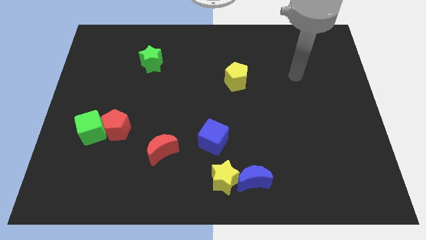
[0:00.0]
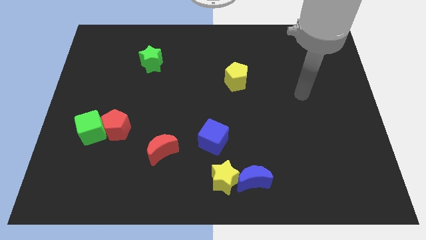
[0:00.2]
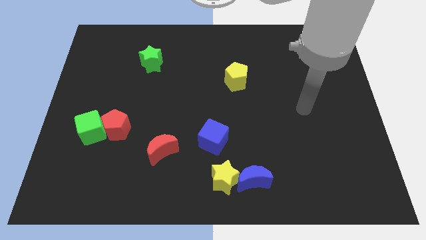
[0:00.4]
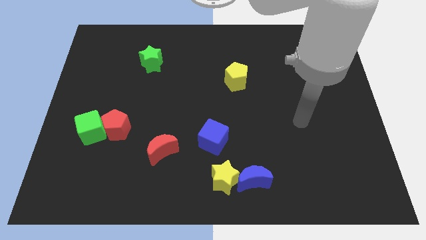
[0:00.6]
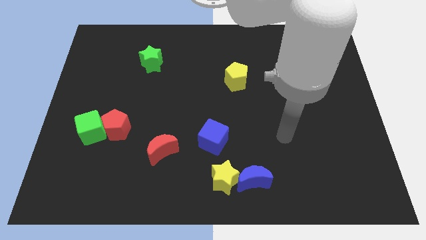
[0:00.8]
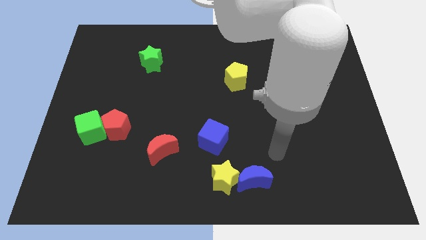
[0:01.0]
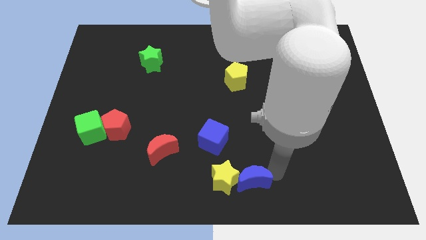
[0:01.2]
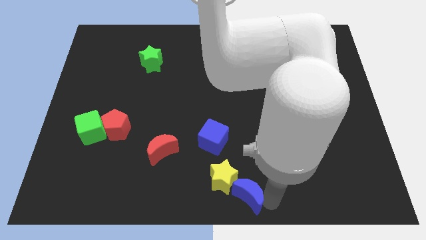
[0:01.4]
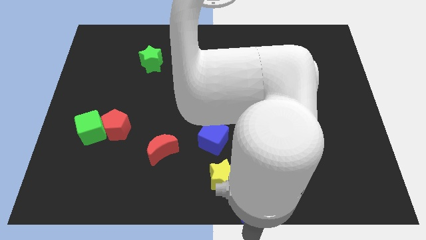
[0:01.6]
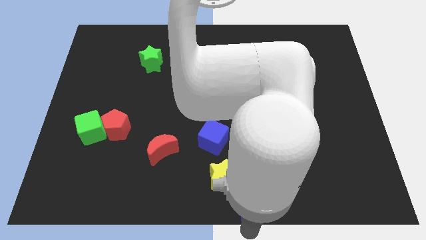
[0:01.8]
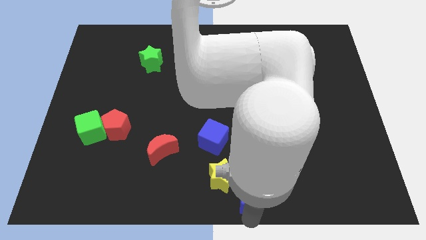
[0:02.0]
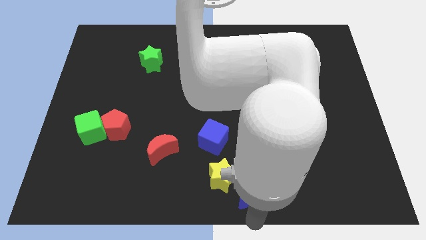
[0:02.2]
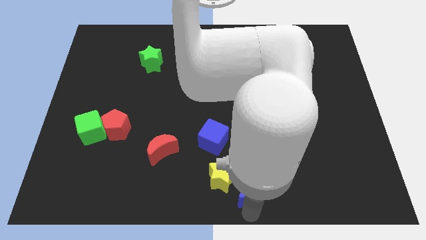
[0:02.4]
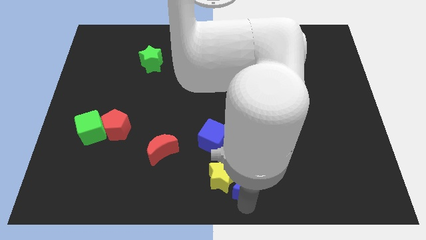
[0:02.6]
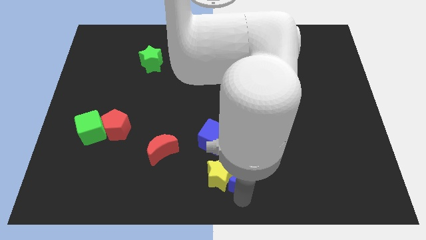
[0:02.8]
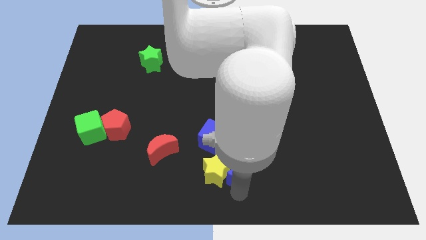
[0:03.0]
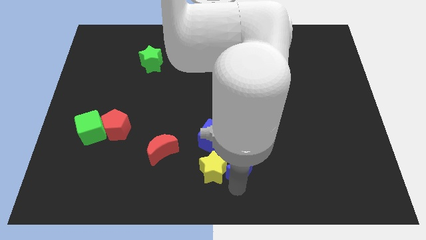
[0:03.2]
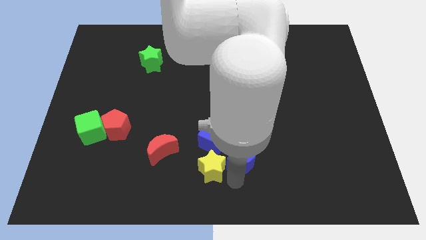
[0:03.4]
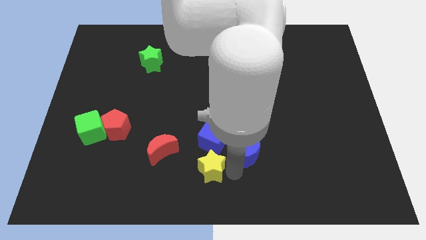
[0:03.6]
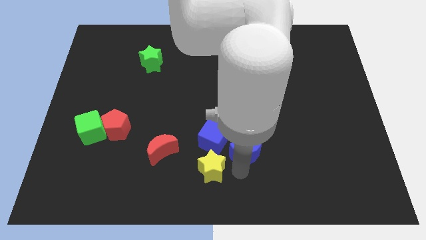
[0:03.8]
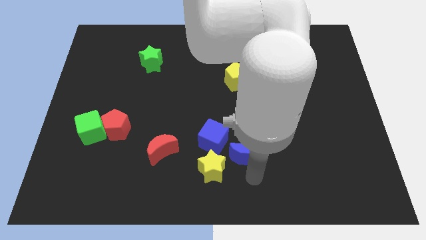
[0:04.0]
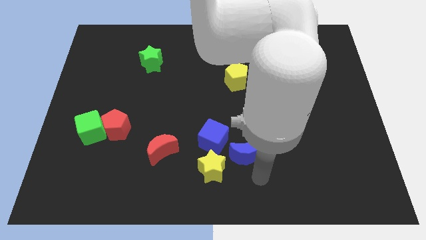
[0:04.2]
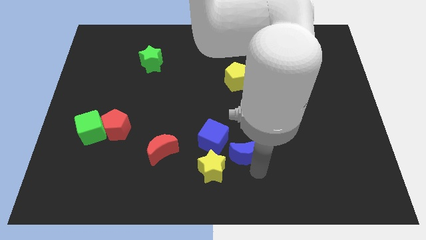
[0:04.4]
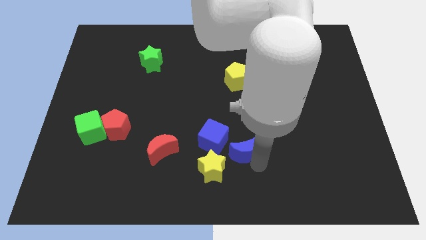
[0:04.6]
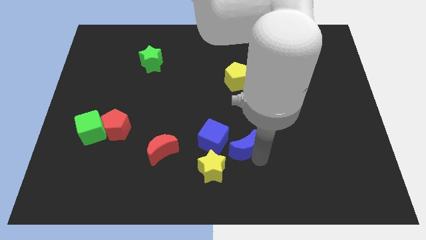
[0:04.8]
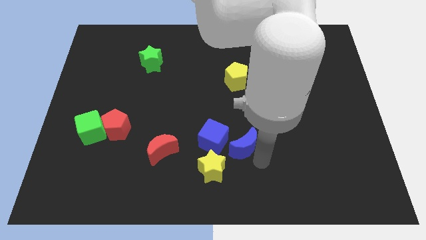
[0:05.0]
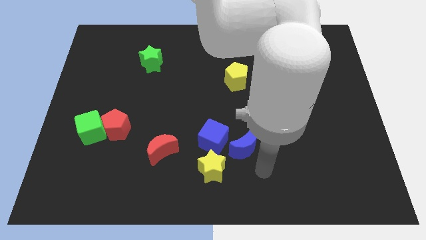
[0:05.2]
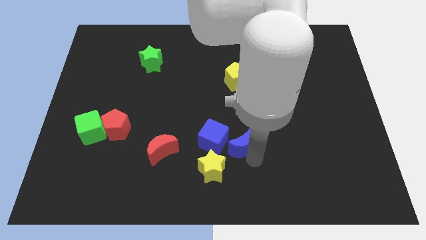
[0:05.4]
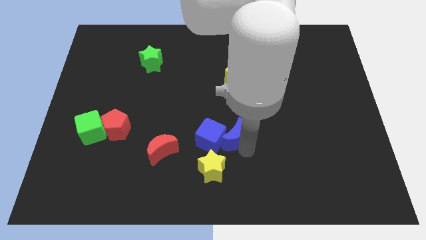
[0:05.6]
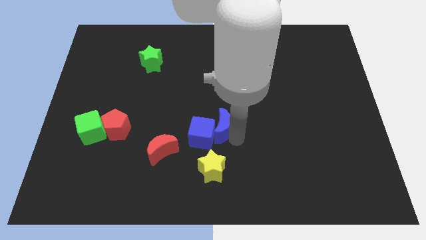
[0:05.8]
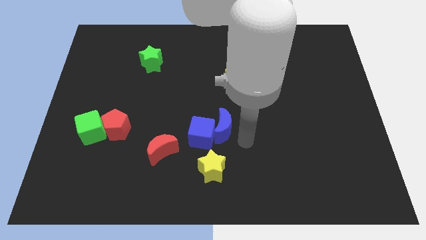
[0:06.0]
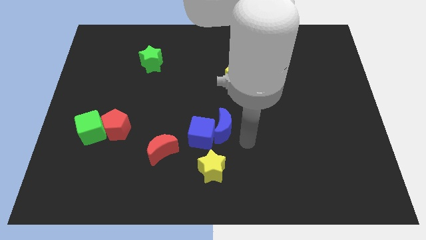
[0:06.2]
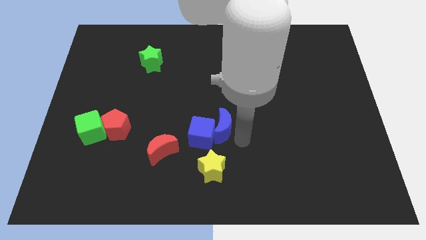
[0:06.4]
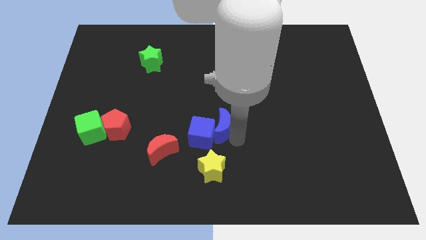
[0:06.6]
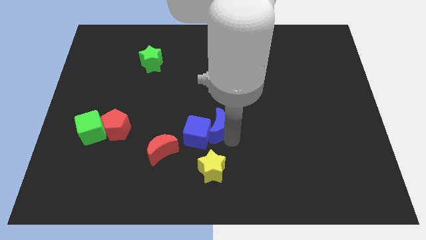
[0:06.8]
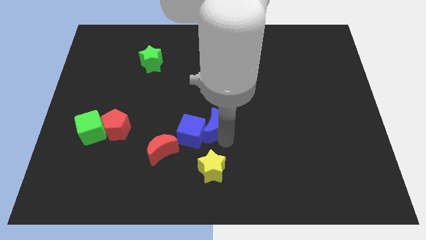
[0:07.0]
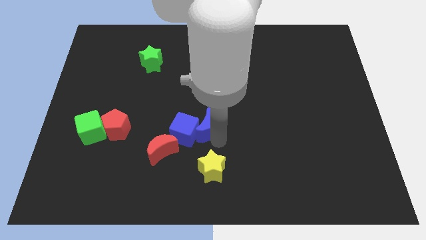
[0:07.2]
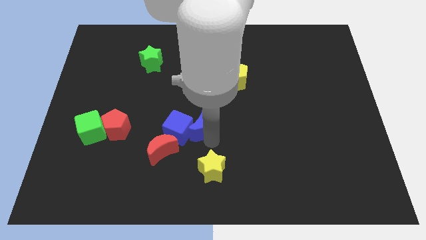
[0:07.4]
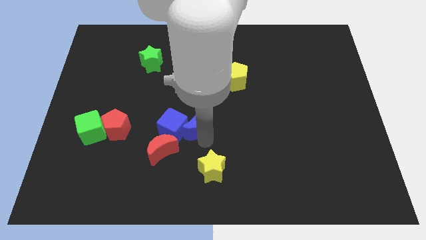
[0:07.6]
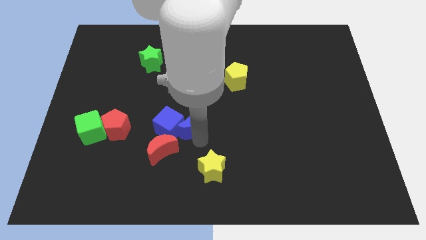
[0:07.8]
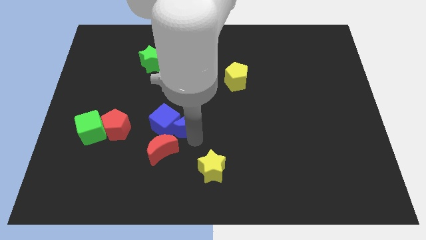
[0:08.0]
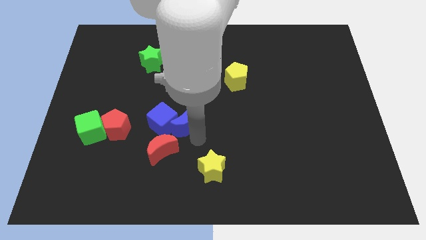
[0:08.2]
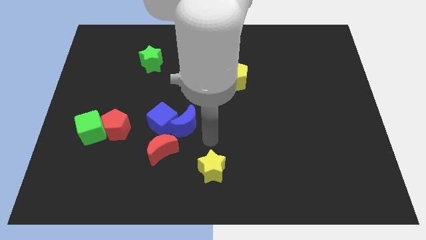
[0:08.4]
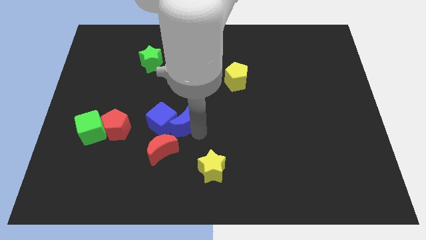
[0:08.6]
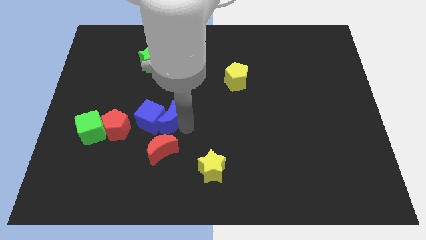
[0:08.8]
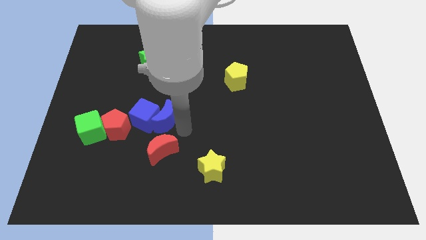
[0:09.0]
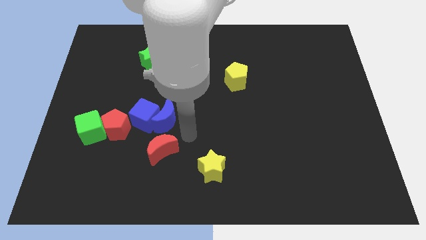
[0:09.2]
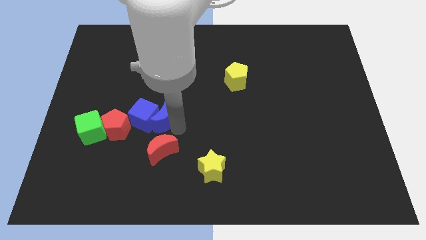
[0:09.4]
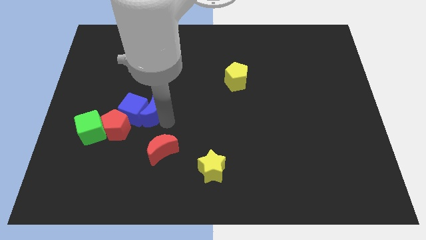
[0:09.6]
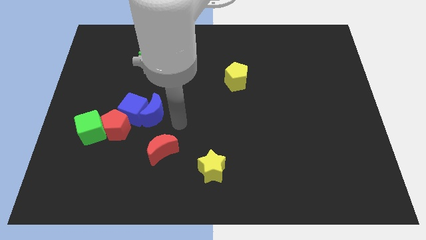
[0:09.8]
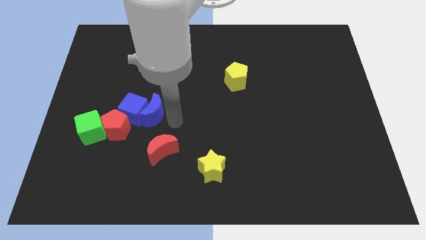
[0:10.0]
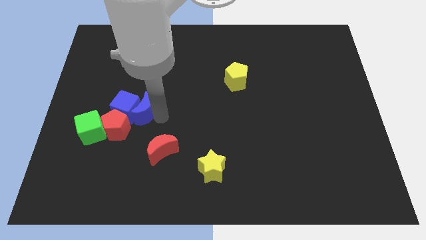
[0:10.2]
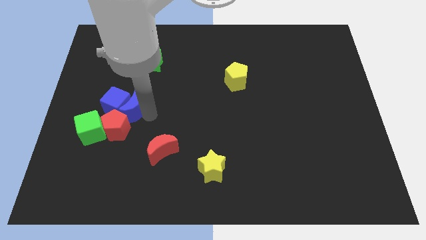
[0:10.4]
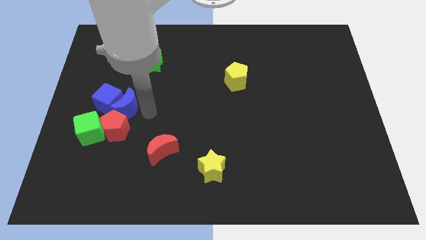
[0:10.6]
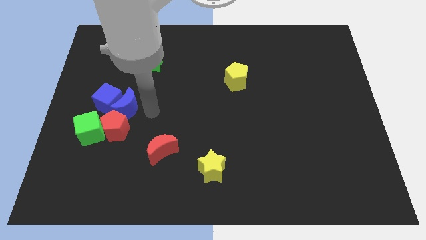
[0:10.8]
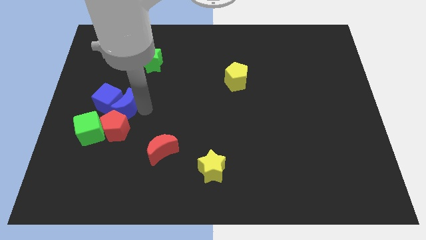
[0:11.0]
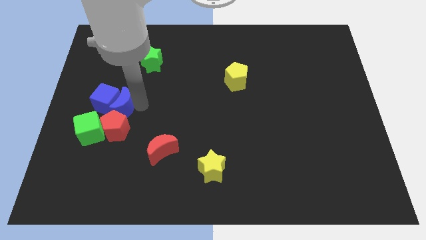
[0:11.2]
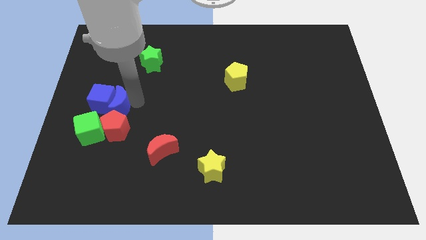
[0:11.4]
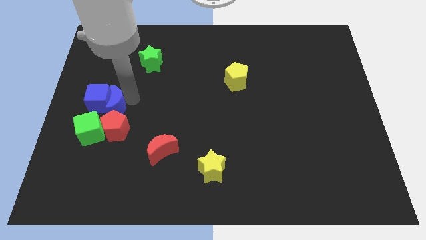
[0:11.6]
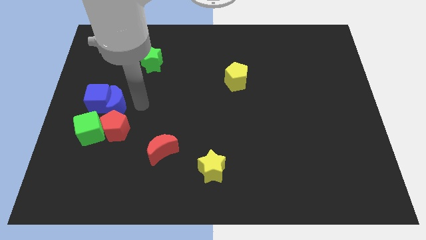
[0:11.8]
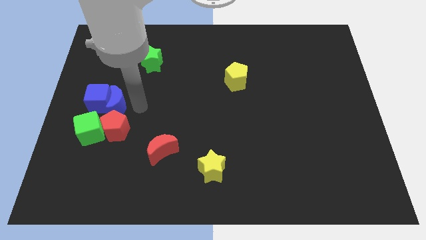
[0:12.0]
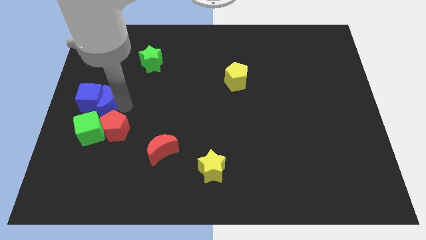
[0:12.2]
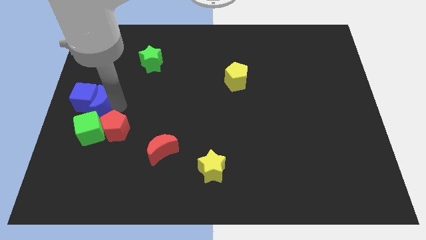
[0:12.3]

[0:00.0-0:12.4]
slide the blue moon to the center left
